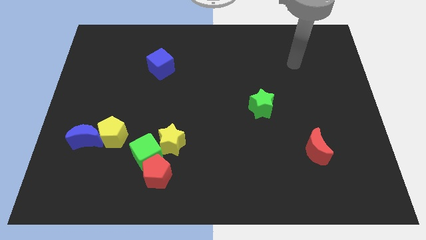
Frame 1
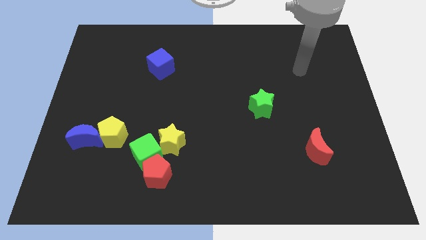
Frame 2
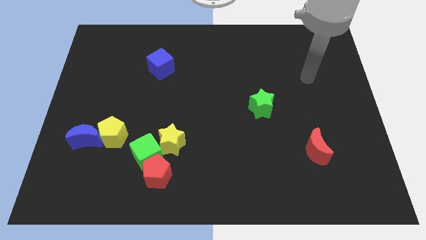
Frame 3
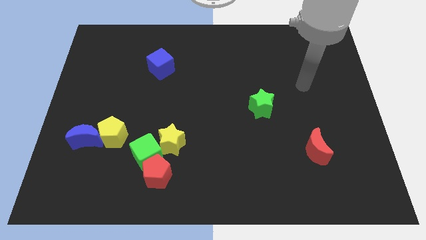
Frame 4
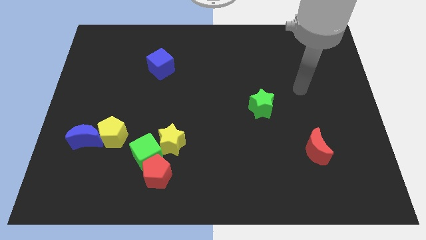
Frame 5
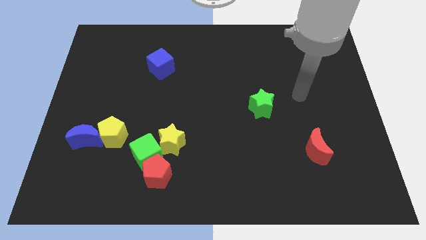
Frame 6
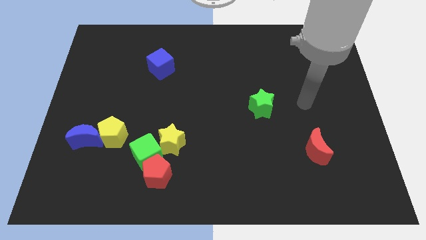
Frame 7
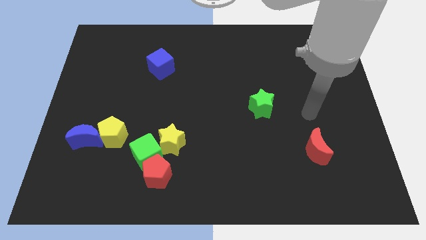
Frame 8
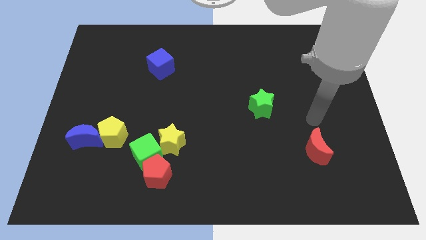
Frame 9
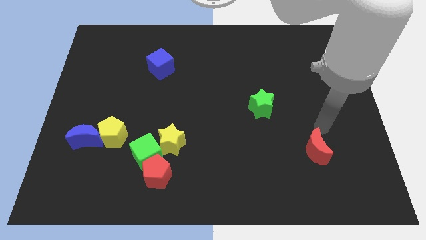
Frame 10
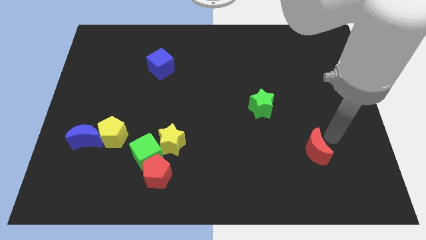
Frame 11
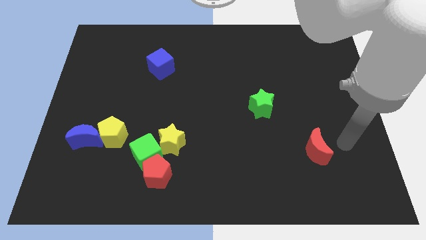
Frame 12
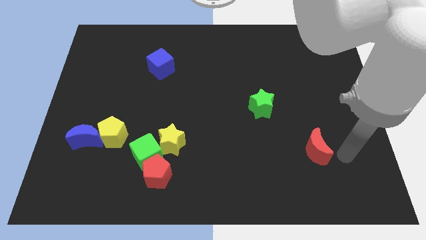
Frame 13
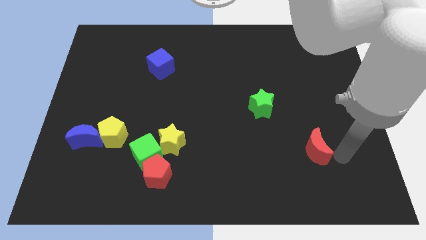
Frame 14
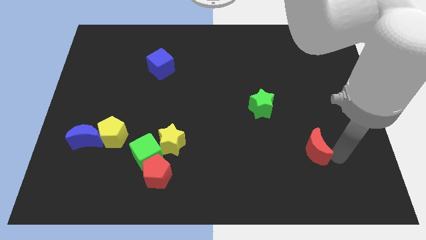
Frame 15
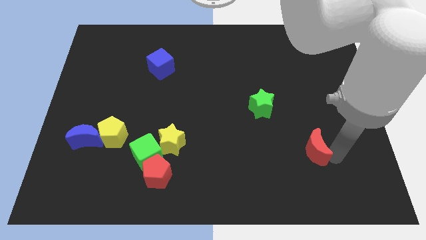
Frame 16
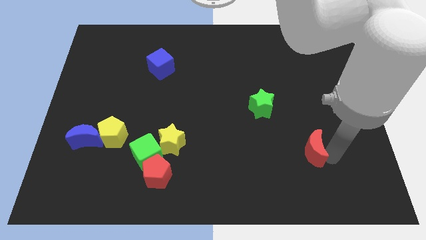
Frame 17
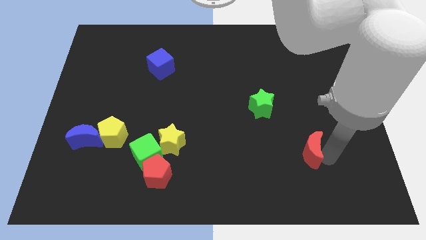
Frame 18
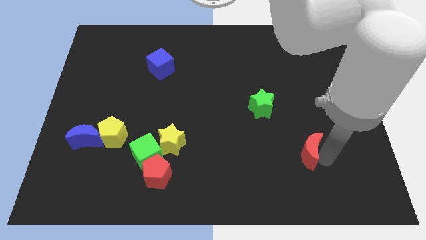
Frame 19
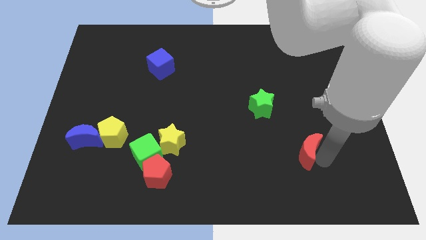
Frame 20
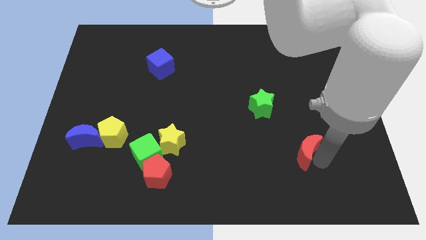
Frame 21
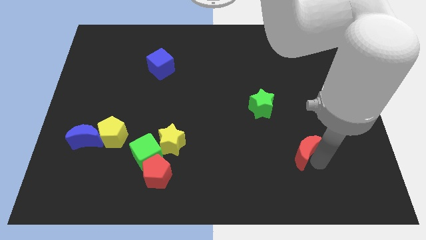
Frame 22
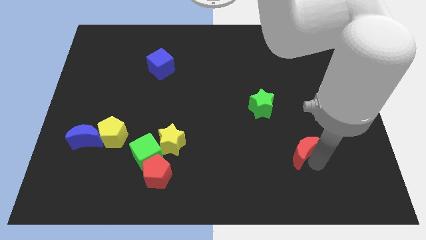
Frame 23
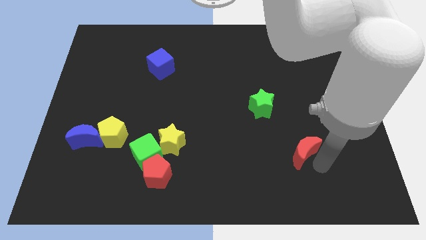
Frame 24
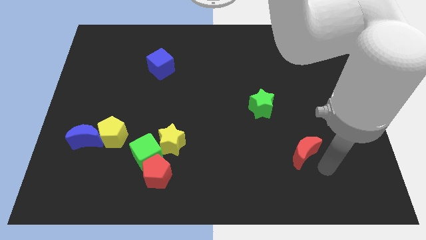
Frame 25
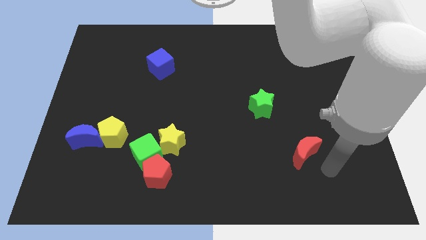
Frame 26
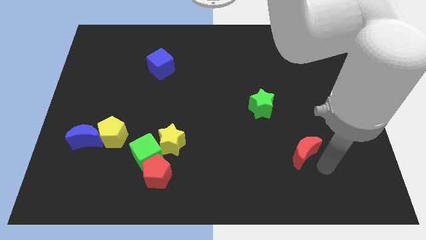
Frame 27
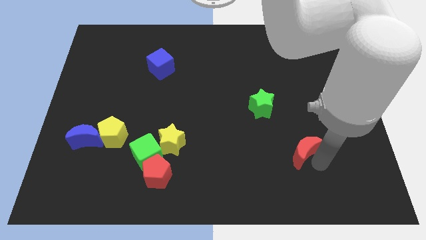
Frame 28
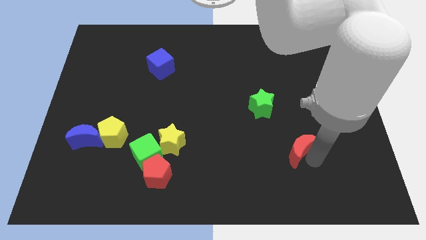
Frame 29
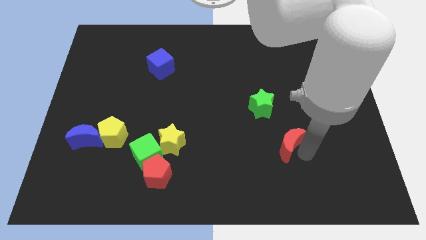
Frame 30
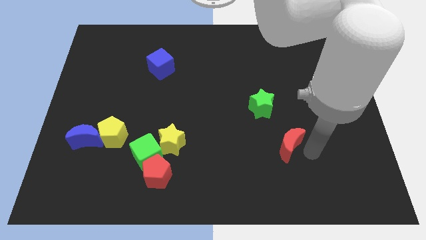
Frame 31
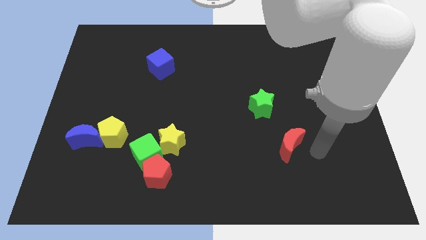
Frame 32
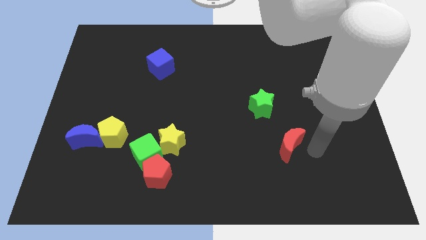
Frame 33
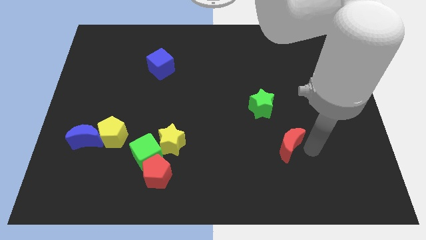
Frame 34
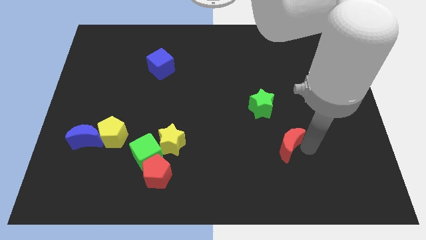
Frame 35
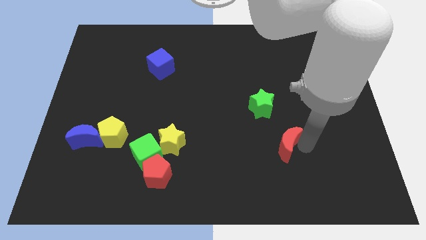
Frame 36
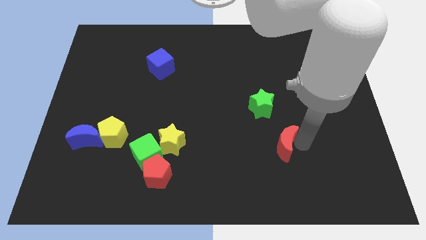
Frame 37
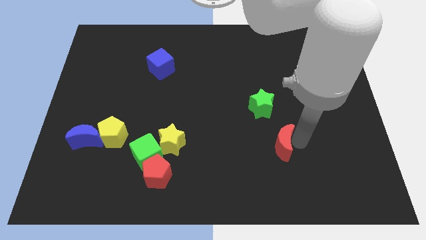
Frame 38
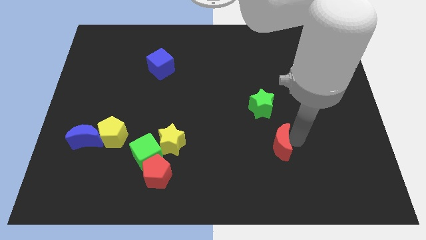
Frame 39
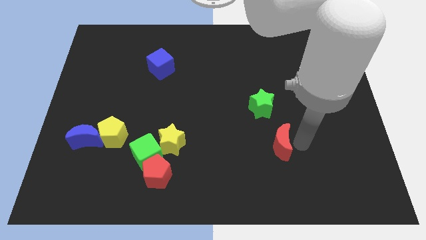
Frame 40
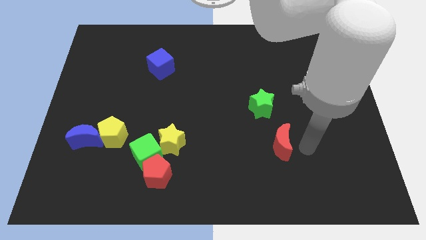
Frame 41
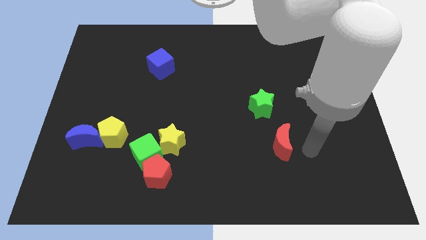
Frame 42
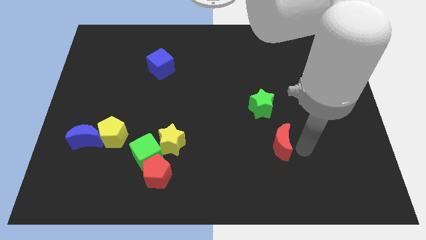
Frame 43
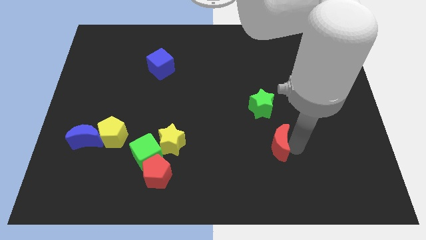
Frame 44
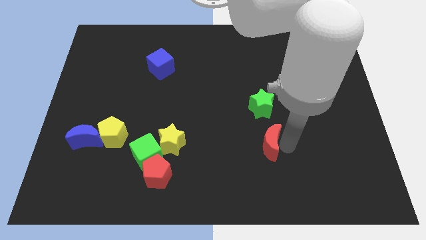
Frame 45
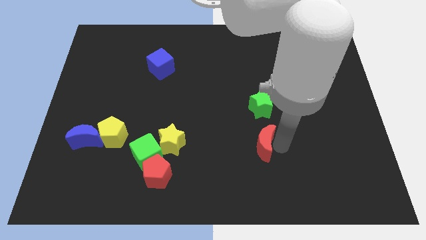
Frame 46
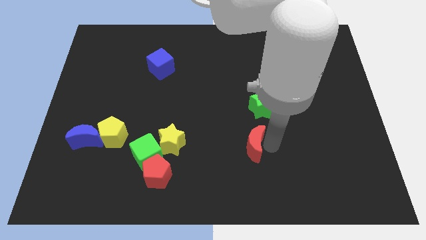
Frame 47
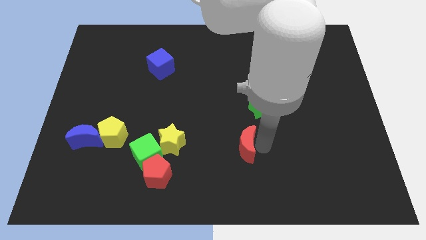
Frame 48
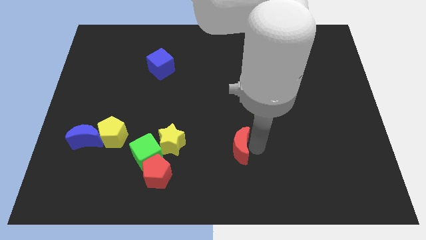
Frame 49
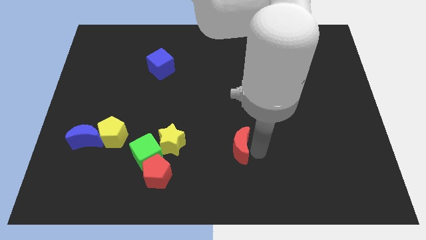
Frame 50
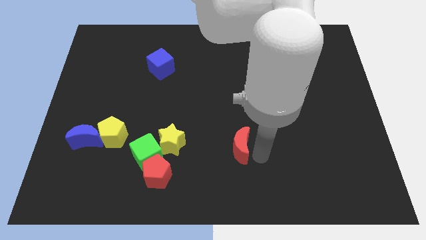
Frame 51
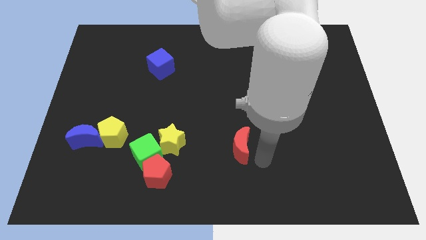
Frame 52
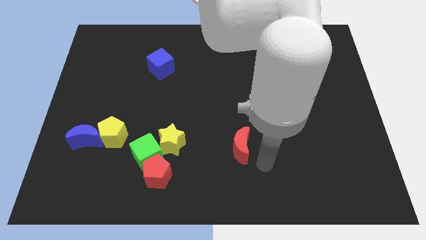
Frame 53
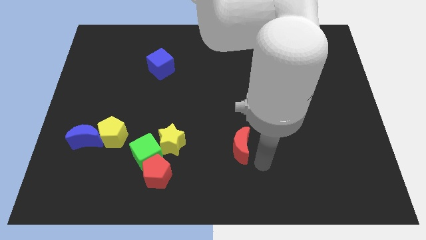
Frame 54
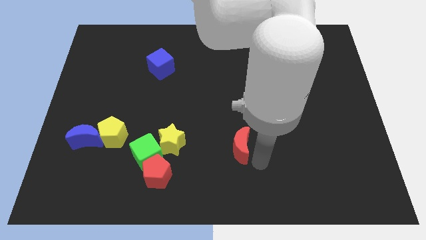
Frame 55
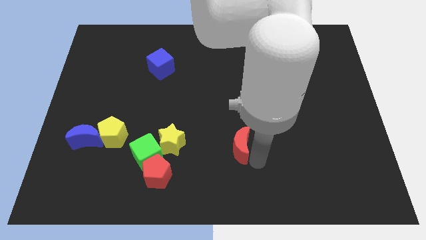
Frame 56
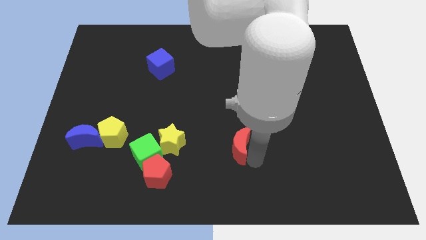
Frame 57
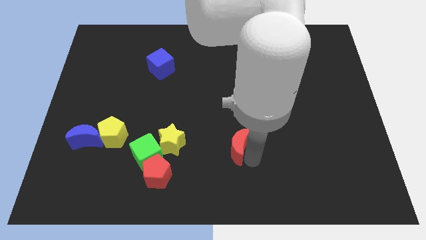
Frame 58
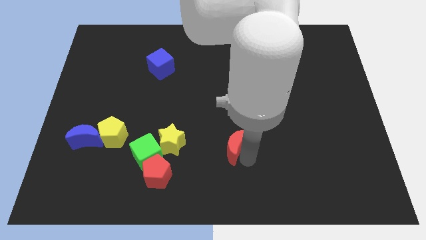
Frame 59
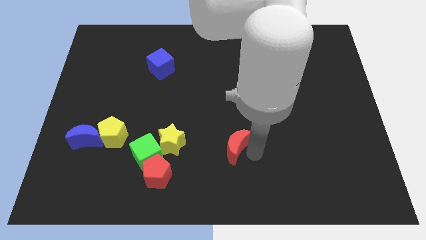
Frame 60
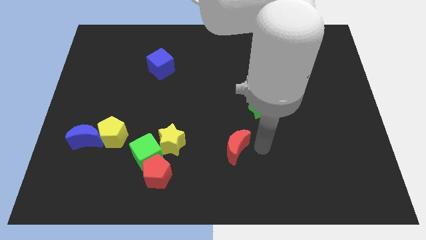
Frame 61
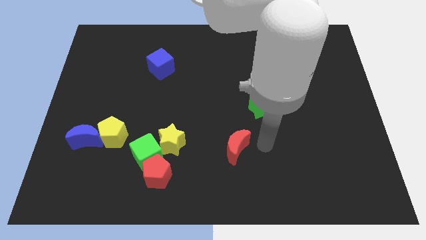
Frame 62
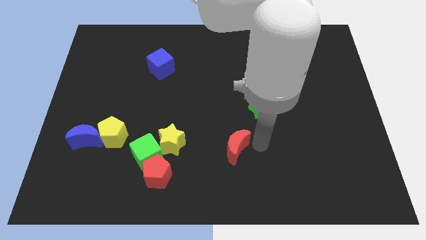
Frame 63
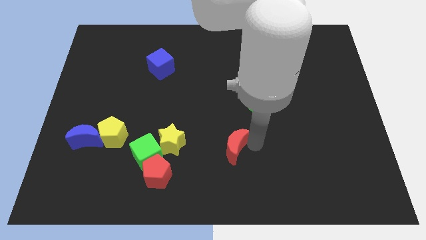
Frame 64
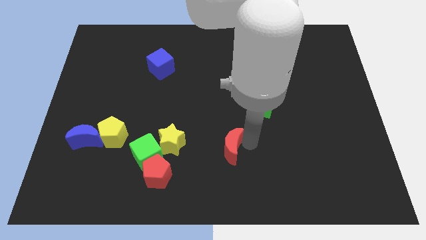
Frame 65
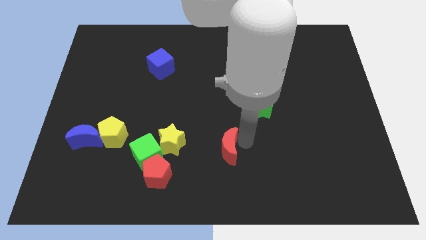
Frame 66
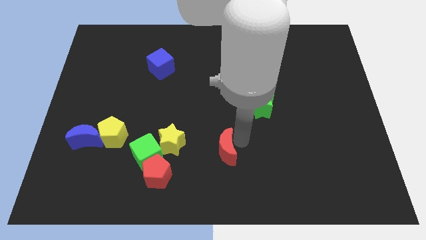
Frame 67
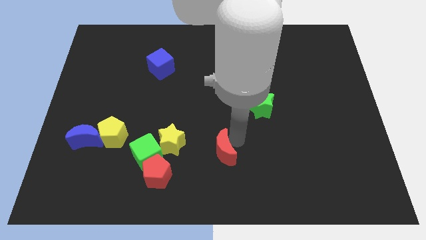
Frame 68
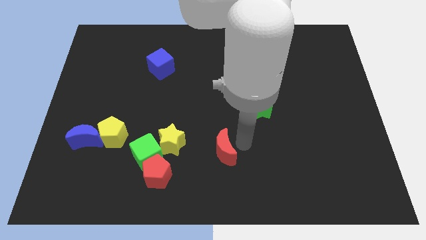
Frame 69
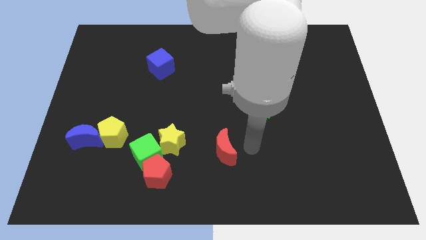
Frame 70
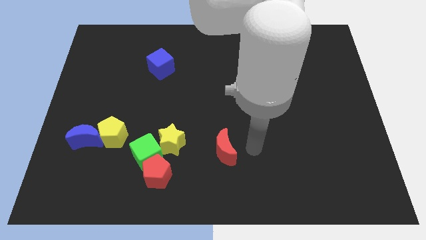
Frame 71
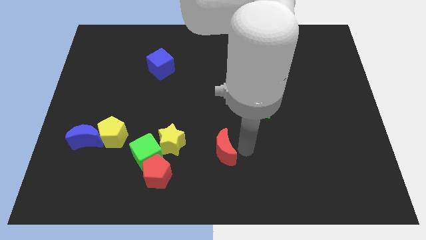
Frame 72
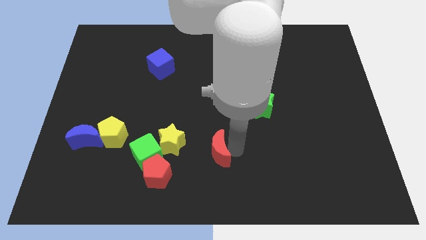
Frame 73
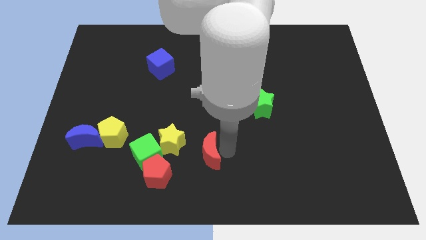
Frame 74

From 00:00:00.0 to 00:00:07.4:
push the red moon diagonally up and to the right of the red pentagon

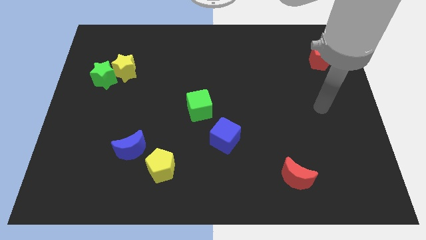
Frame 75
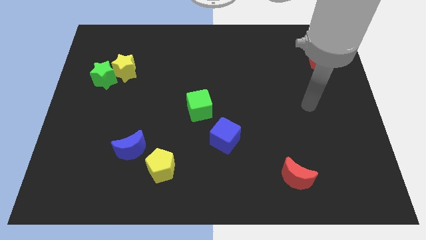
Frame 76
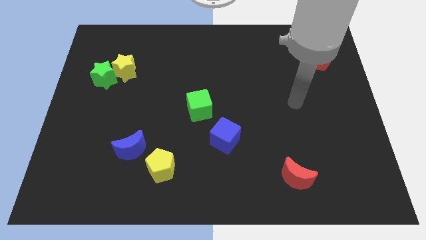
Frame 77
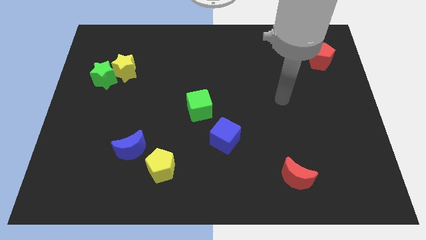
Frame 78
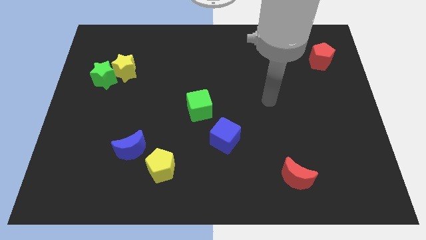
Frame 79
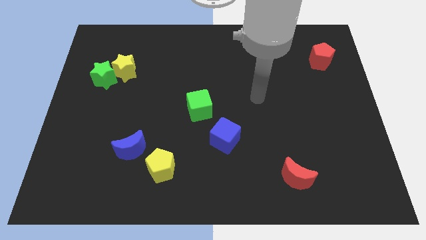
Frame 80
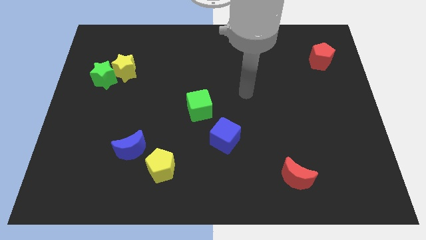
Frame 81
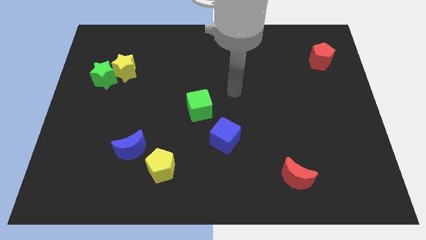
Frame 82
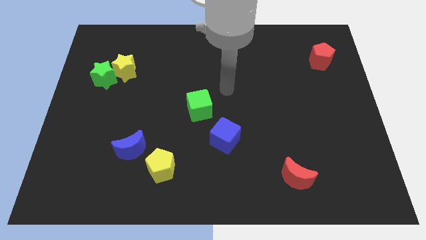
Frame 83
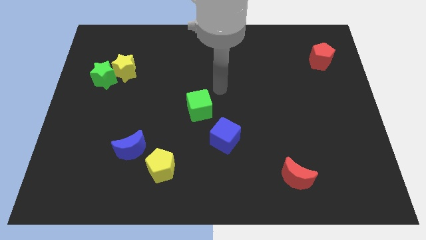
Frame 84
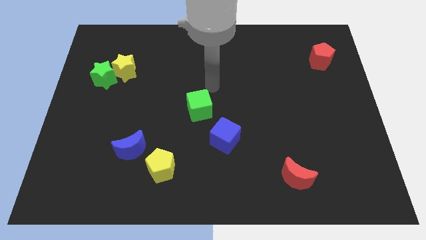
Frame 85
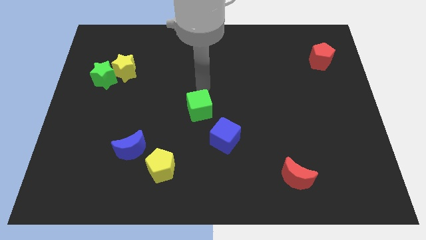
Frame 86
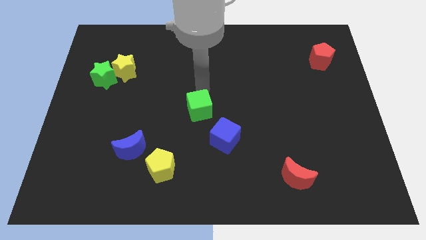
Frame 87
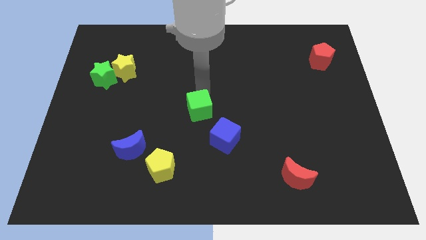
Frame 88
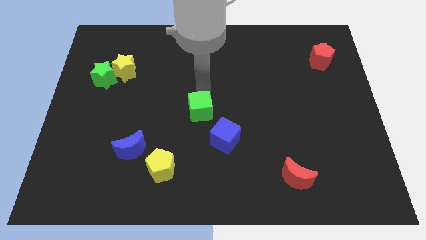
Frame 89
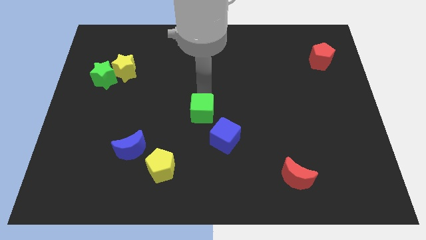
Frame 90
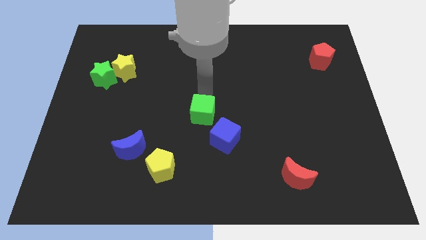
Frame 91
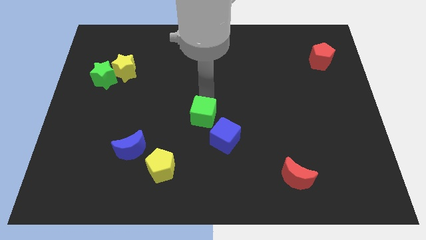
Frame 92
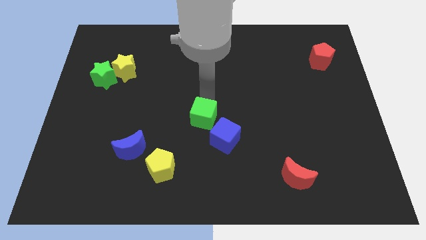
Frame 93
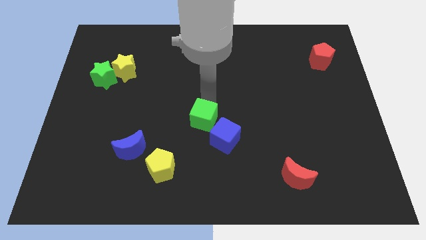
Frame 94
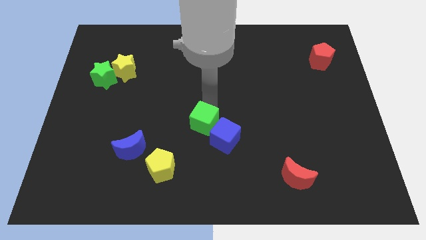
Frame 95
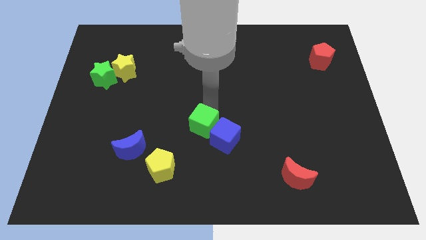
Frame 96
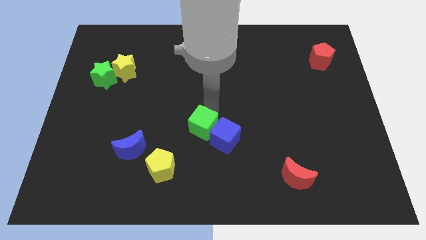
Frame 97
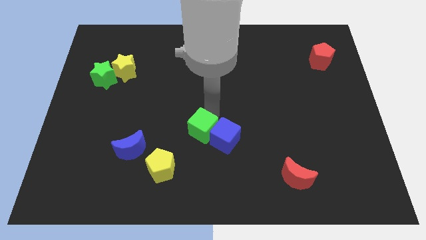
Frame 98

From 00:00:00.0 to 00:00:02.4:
push the green cube to the top right of the yellow pentagon
